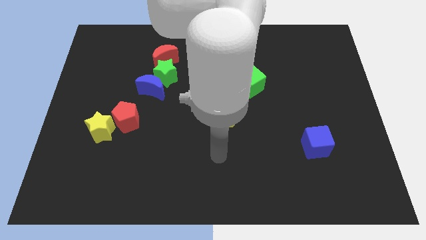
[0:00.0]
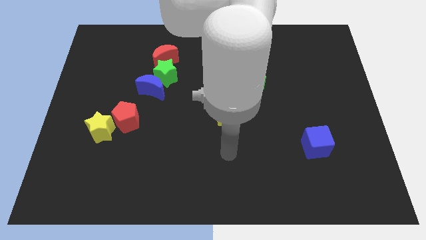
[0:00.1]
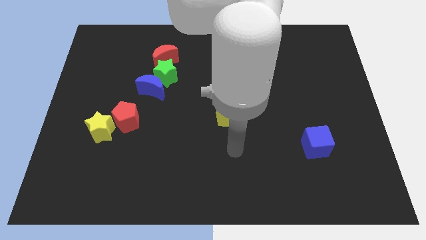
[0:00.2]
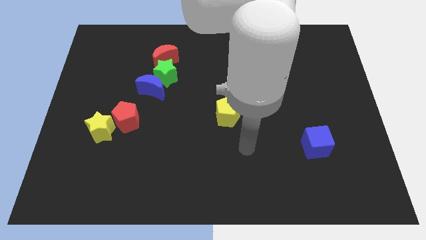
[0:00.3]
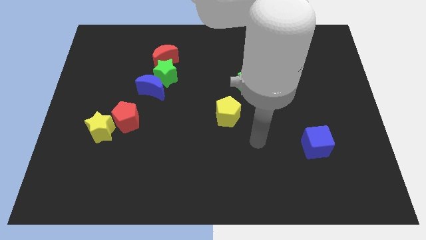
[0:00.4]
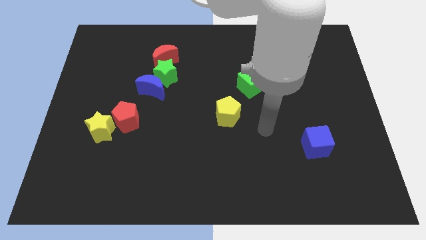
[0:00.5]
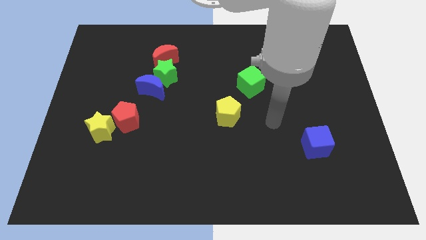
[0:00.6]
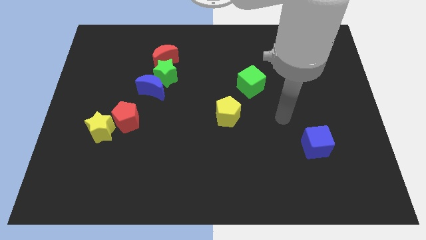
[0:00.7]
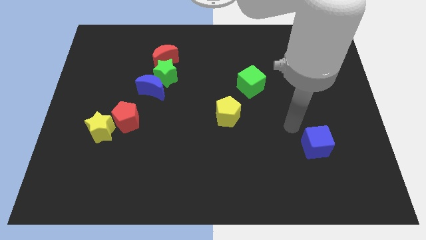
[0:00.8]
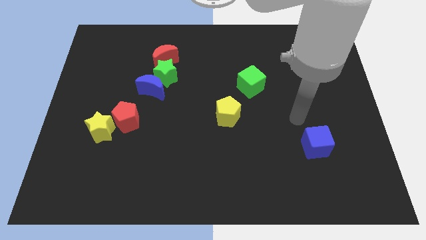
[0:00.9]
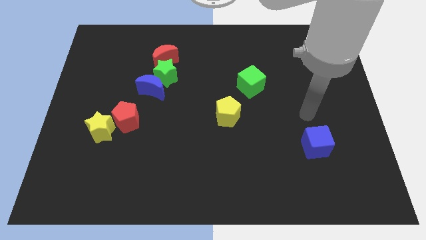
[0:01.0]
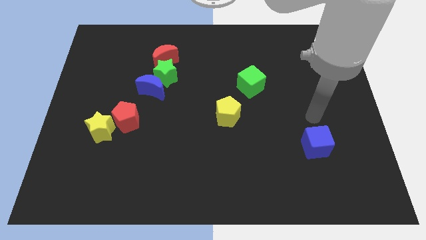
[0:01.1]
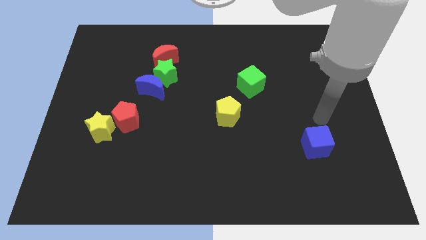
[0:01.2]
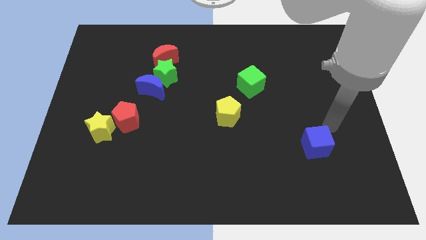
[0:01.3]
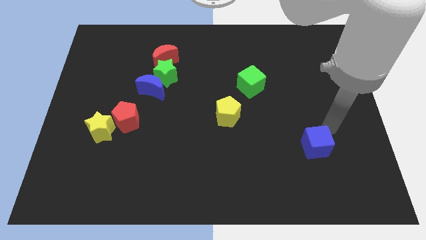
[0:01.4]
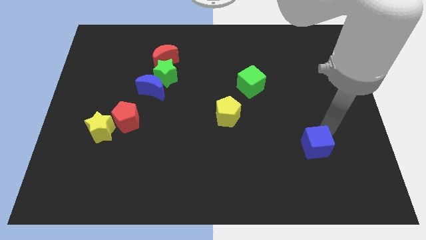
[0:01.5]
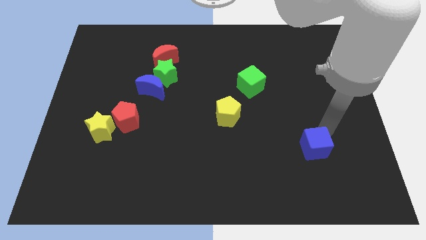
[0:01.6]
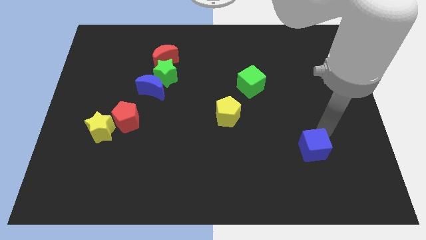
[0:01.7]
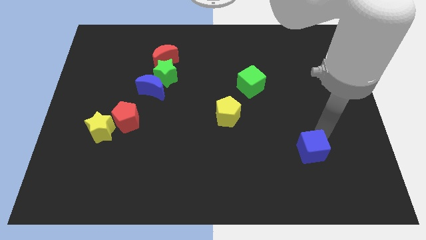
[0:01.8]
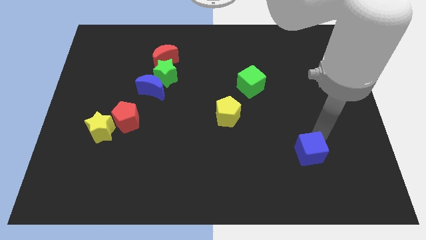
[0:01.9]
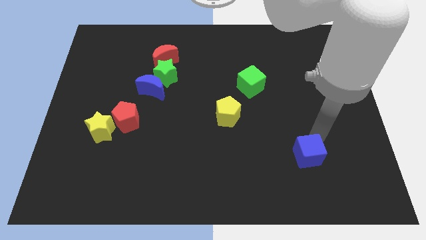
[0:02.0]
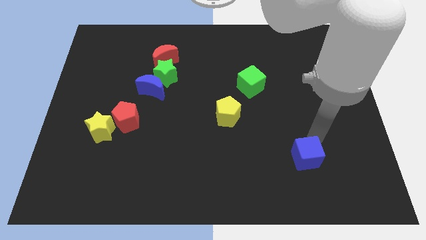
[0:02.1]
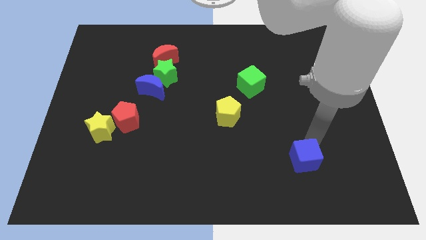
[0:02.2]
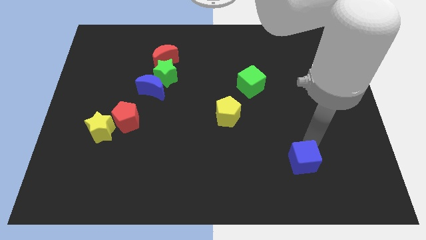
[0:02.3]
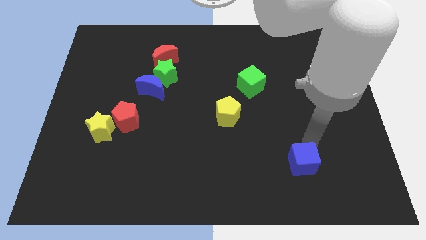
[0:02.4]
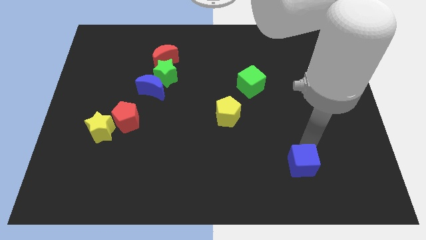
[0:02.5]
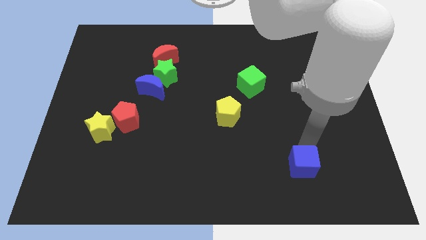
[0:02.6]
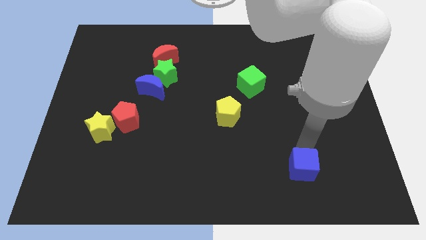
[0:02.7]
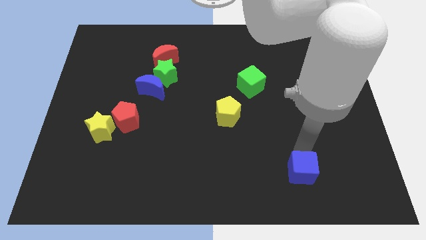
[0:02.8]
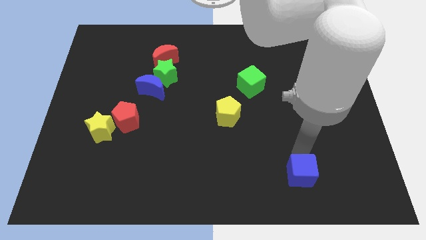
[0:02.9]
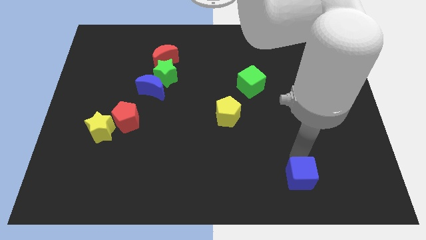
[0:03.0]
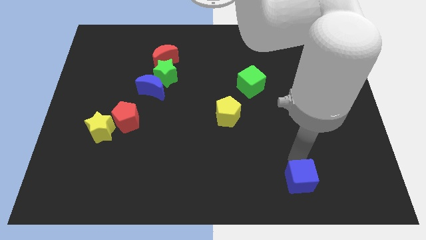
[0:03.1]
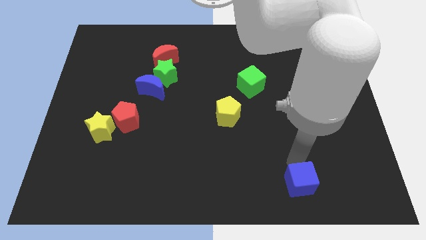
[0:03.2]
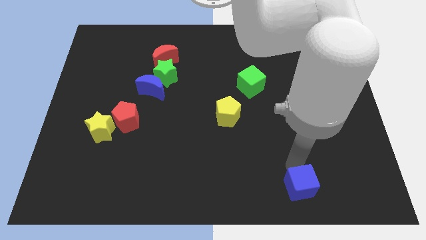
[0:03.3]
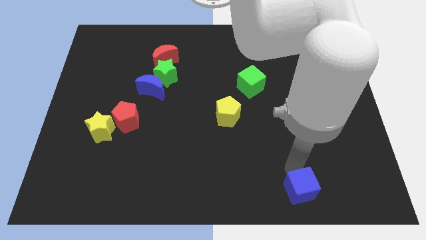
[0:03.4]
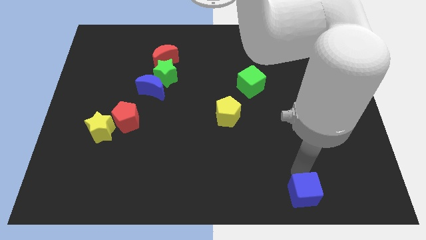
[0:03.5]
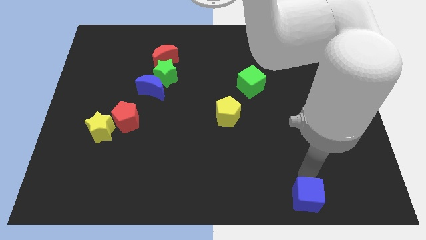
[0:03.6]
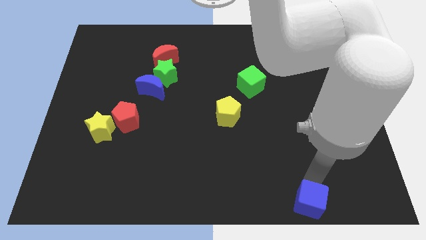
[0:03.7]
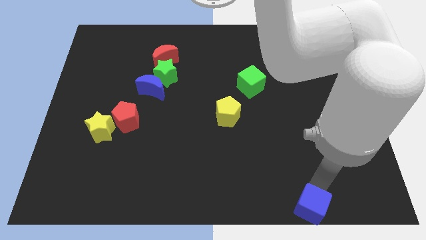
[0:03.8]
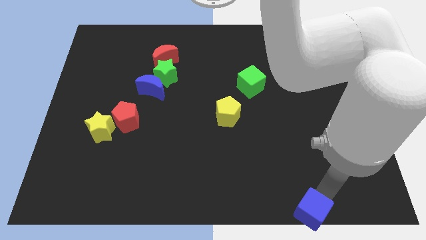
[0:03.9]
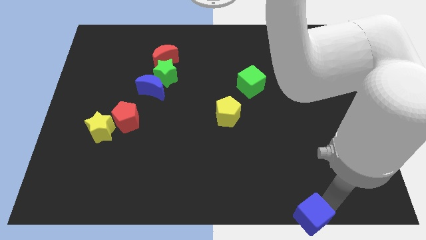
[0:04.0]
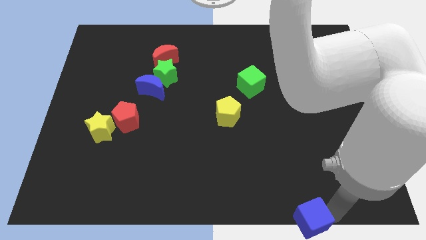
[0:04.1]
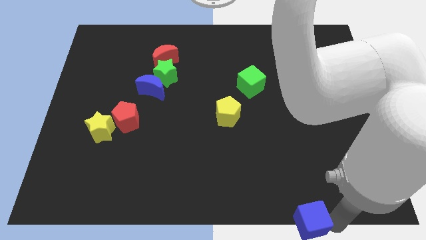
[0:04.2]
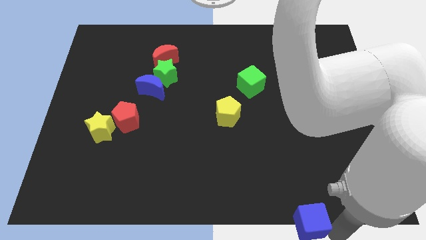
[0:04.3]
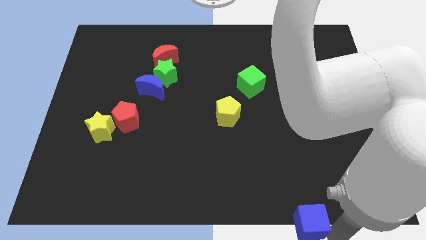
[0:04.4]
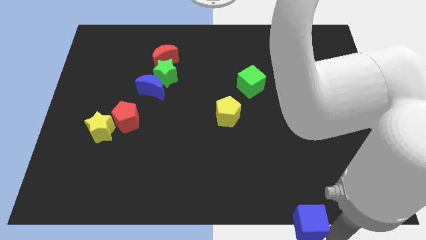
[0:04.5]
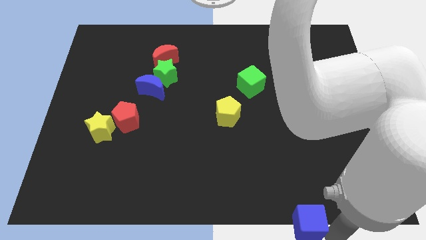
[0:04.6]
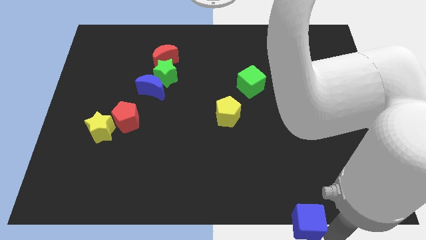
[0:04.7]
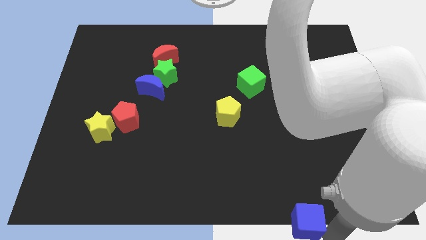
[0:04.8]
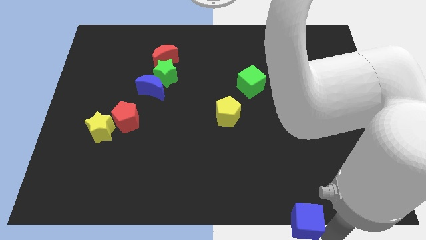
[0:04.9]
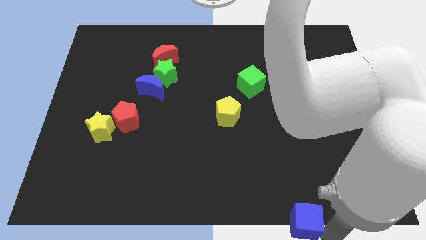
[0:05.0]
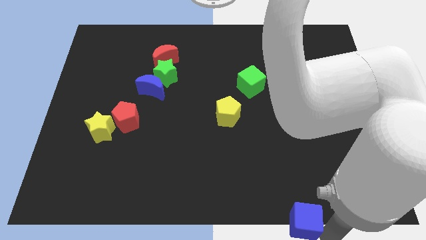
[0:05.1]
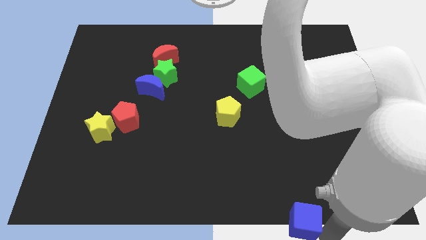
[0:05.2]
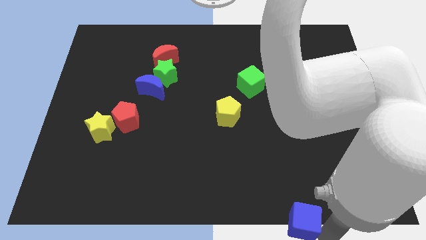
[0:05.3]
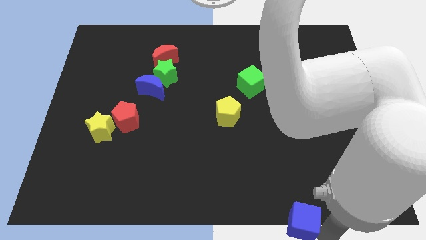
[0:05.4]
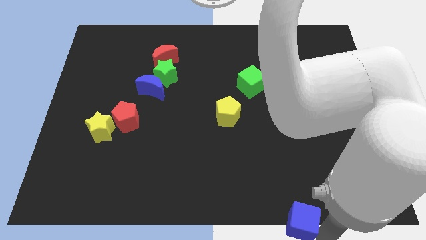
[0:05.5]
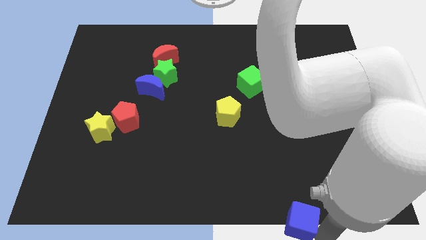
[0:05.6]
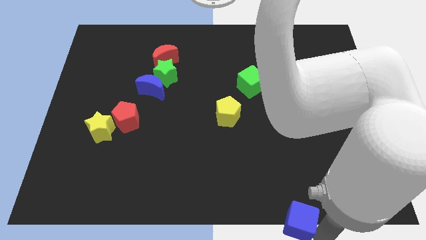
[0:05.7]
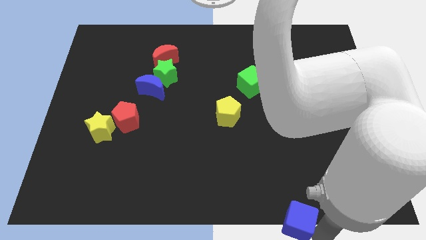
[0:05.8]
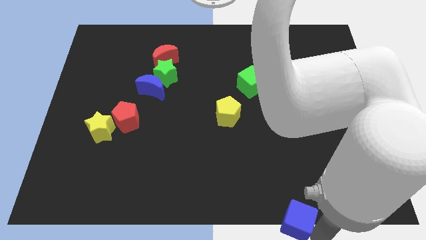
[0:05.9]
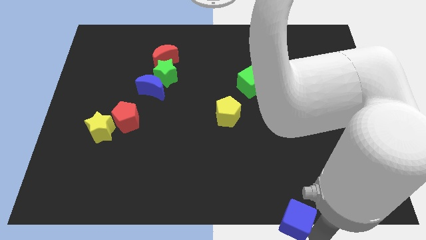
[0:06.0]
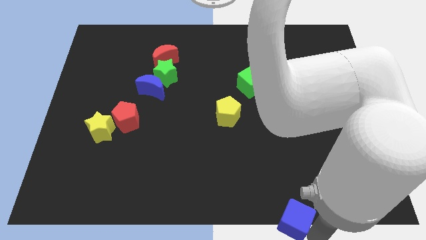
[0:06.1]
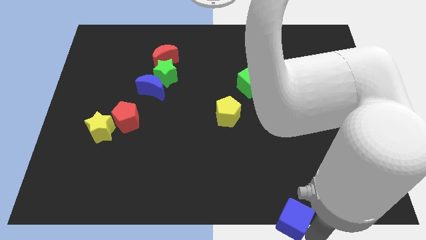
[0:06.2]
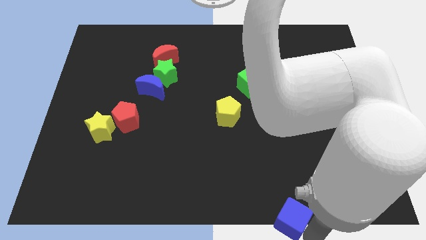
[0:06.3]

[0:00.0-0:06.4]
slide the blue cube to the bottom
